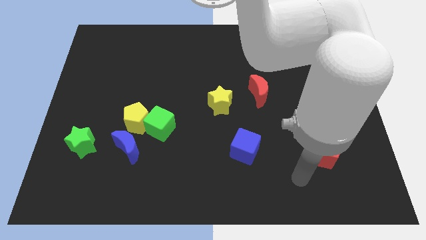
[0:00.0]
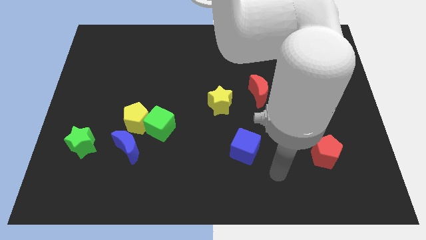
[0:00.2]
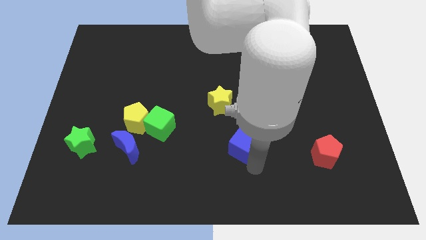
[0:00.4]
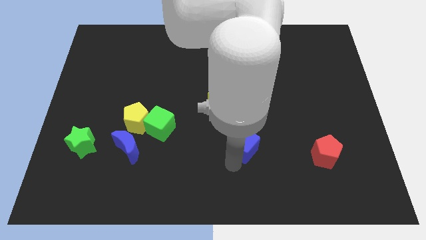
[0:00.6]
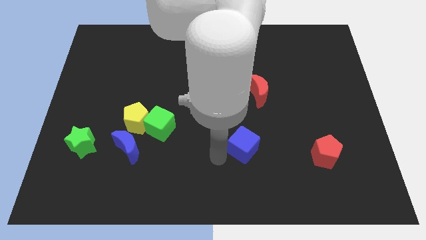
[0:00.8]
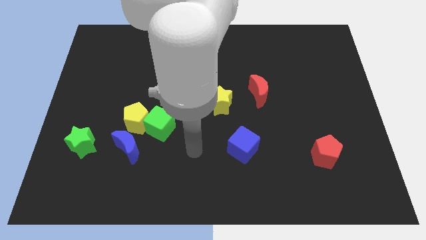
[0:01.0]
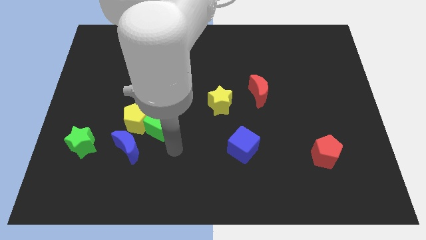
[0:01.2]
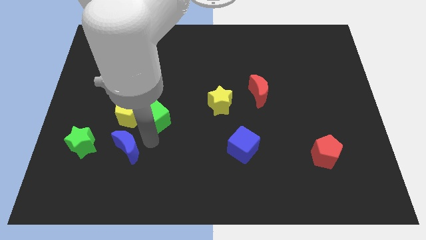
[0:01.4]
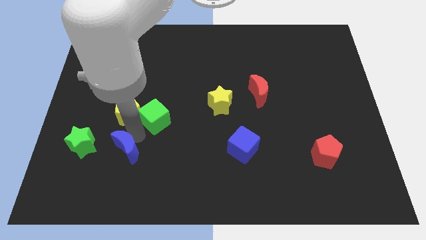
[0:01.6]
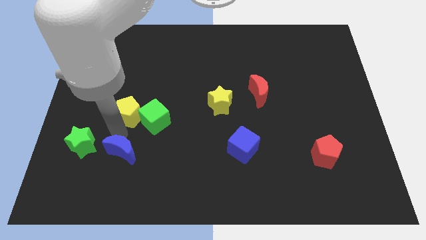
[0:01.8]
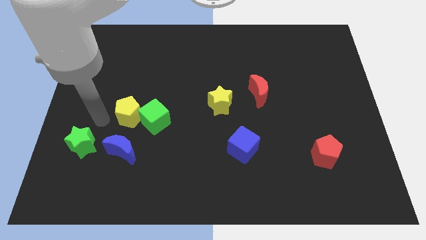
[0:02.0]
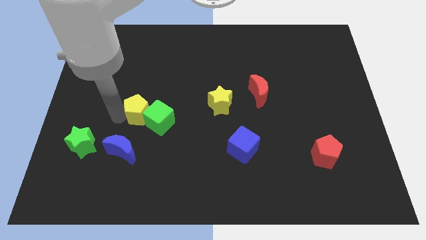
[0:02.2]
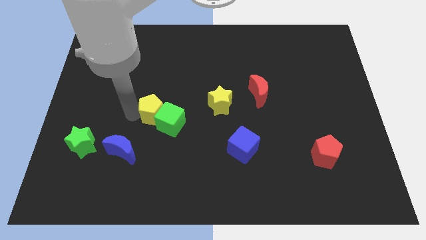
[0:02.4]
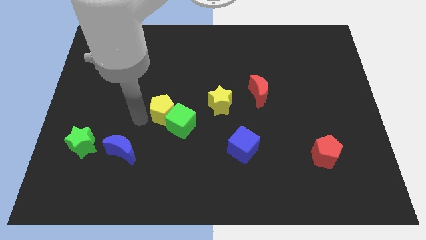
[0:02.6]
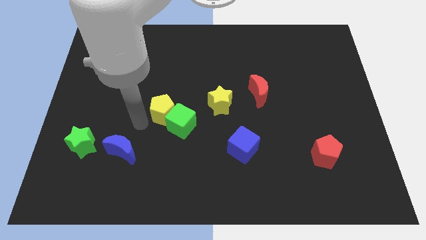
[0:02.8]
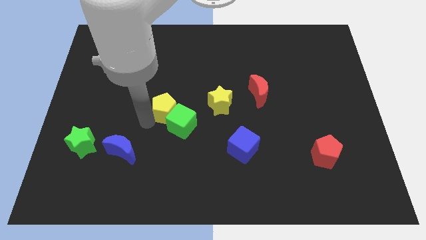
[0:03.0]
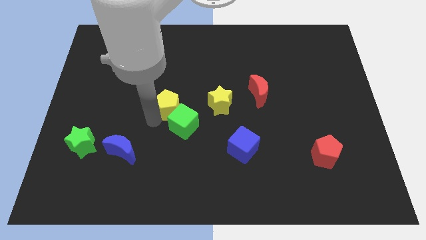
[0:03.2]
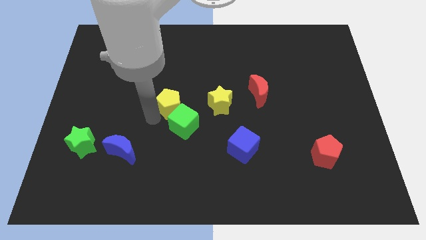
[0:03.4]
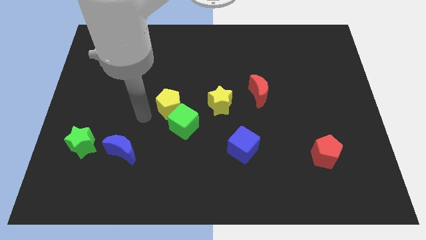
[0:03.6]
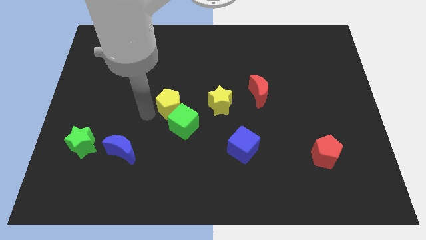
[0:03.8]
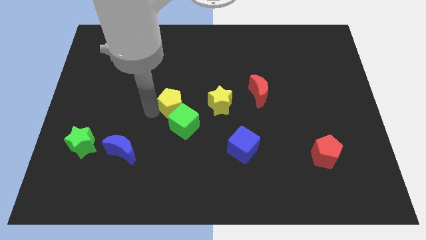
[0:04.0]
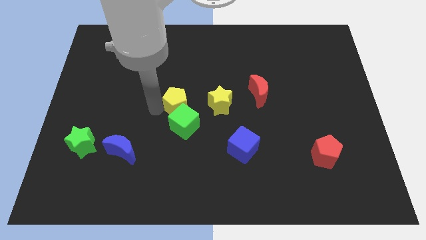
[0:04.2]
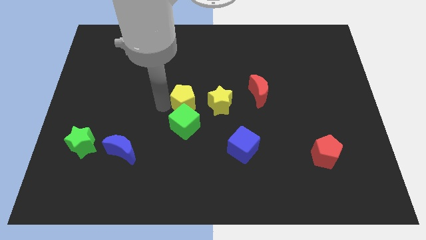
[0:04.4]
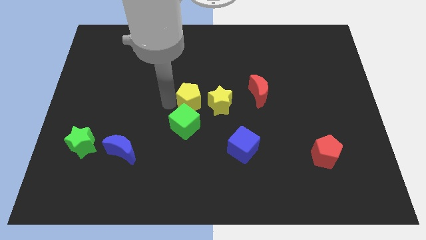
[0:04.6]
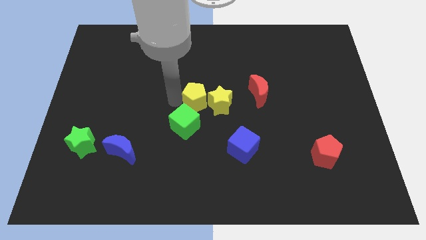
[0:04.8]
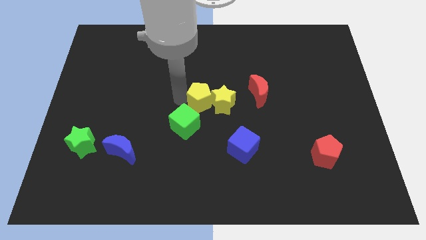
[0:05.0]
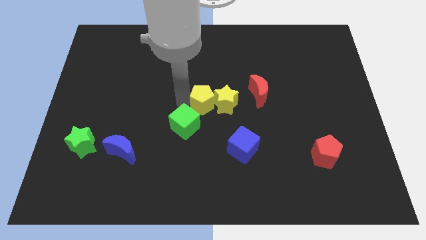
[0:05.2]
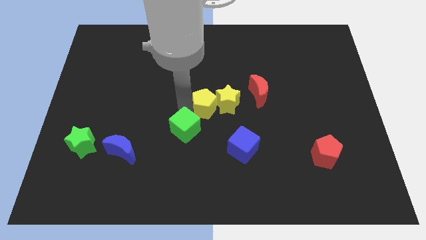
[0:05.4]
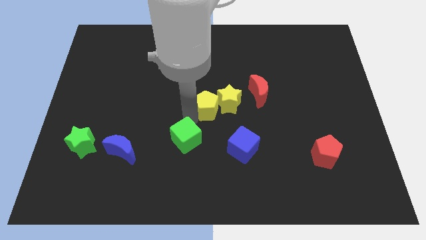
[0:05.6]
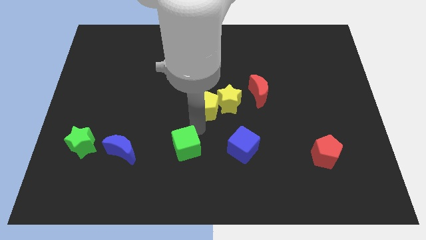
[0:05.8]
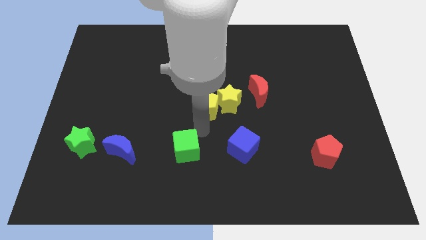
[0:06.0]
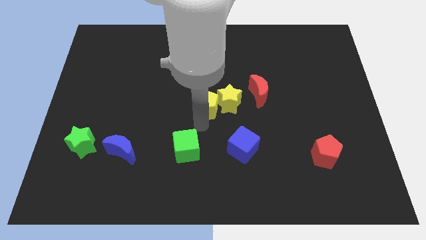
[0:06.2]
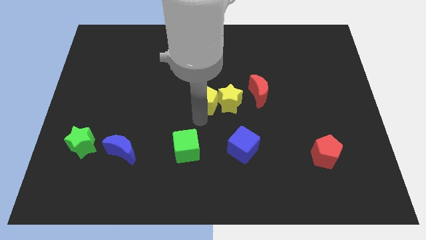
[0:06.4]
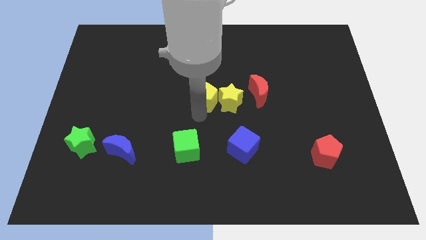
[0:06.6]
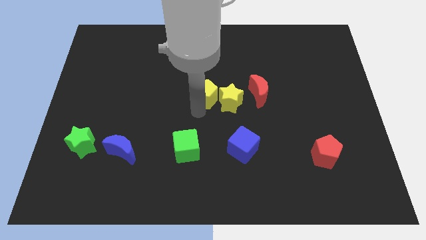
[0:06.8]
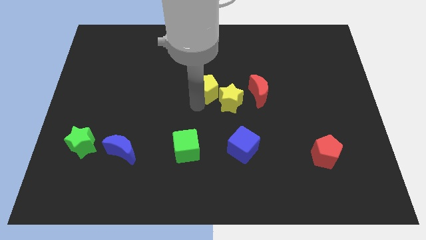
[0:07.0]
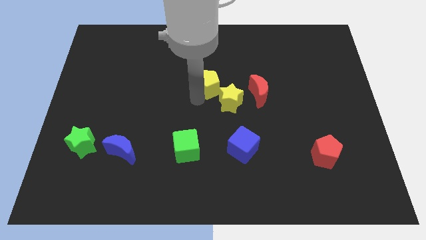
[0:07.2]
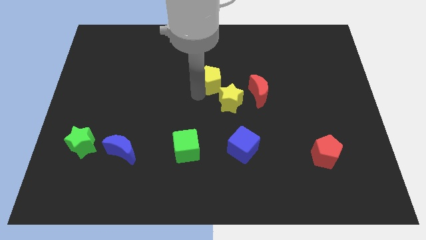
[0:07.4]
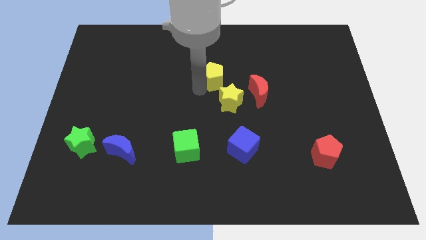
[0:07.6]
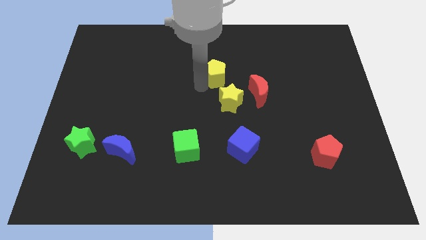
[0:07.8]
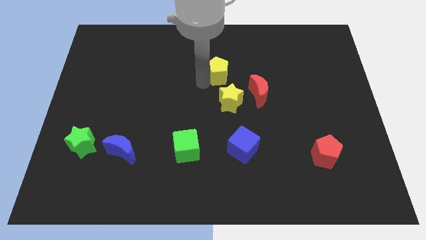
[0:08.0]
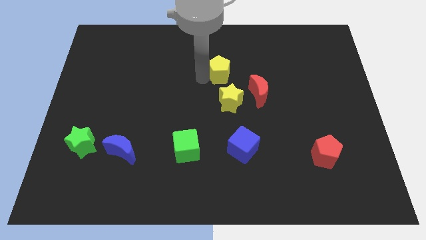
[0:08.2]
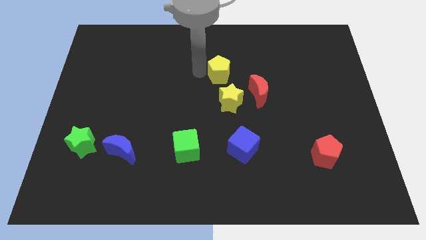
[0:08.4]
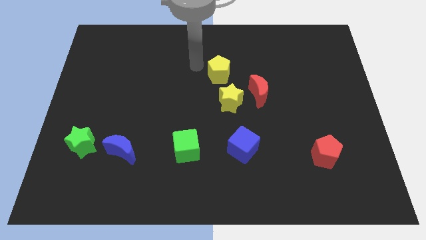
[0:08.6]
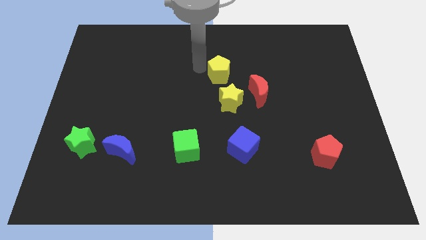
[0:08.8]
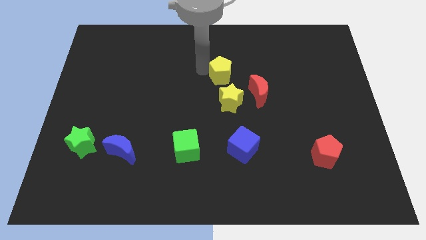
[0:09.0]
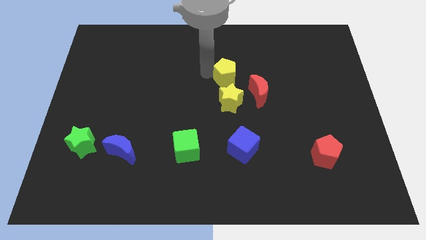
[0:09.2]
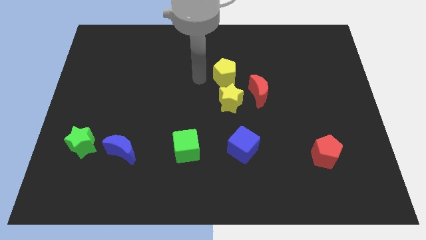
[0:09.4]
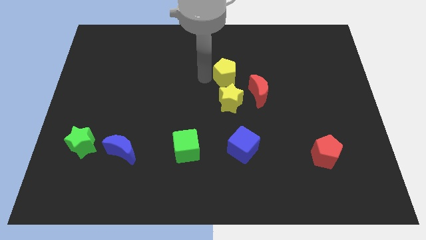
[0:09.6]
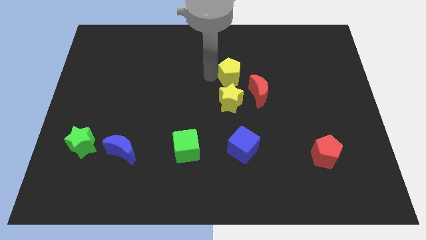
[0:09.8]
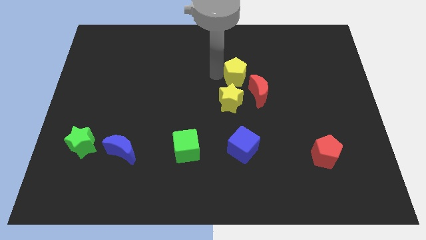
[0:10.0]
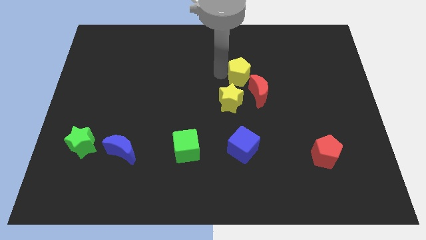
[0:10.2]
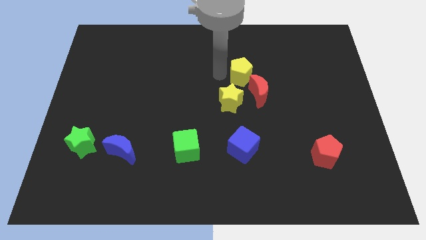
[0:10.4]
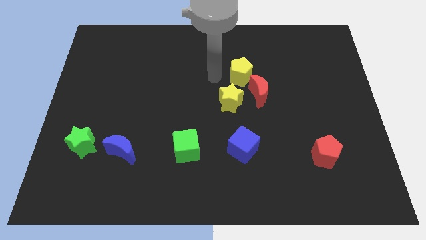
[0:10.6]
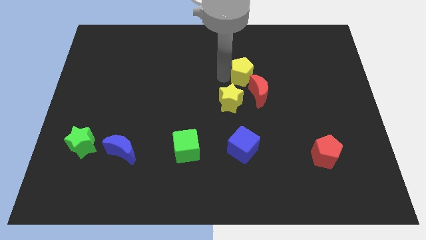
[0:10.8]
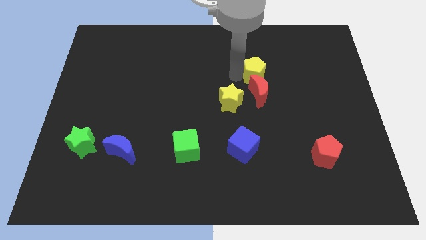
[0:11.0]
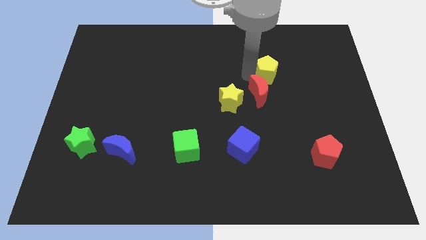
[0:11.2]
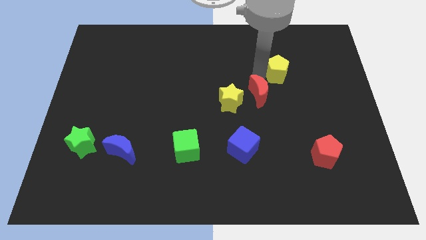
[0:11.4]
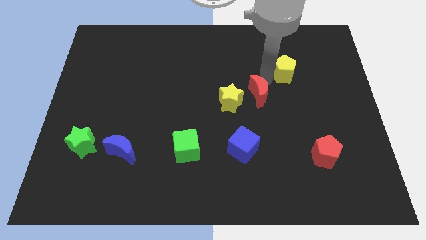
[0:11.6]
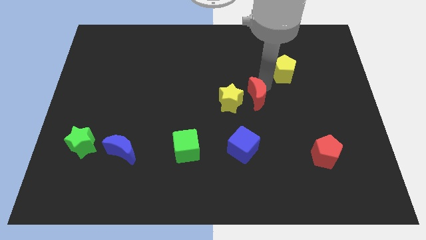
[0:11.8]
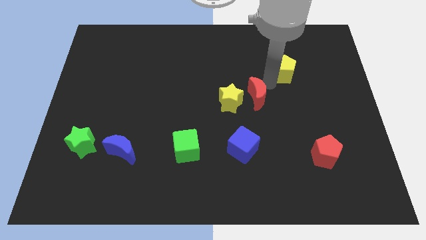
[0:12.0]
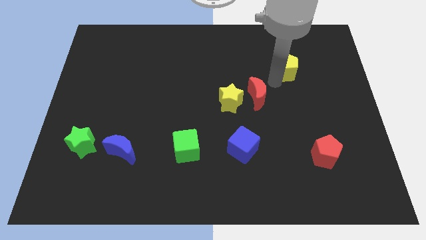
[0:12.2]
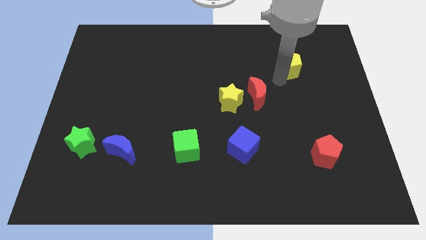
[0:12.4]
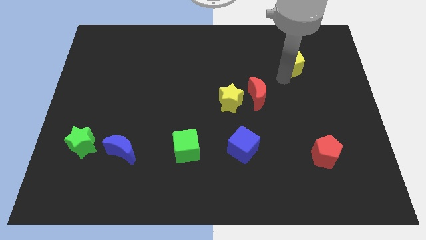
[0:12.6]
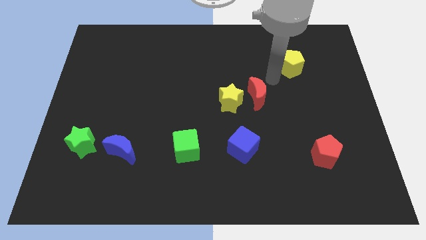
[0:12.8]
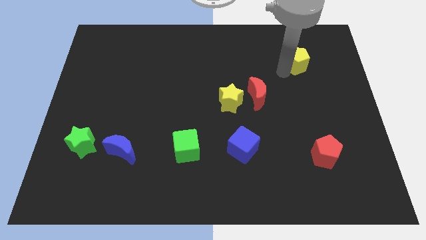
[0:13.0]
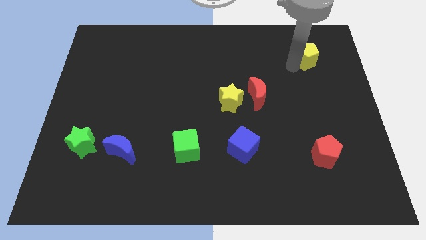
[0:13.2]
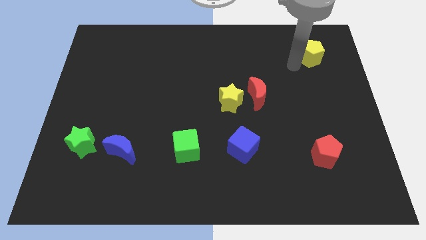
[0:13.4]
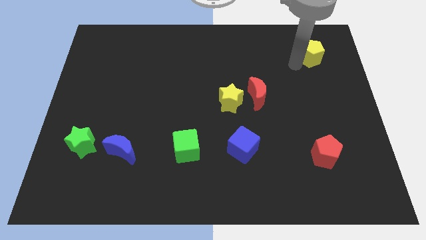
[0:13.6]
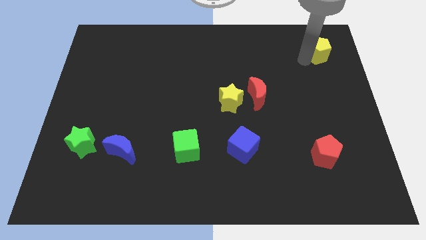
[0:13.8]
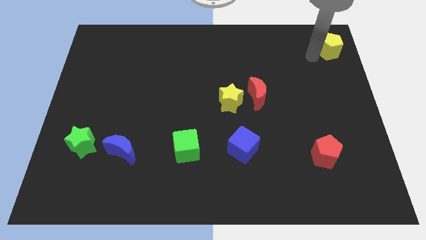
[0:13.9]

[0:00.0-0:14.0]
move the yellow pentagon to the upper right corner
